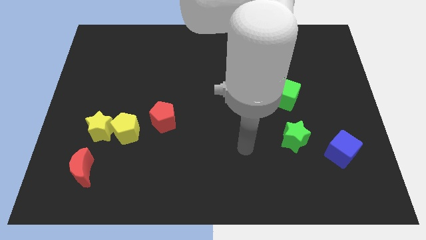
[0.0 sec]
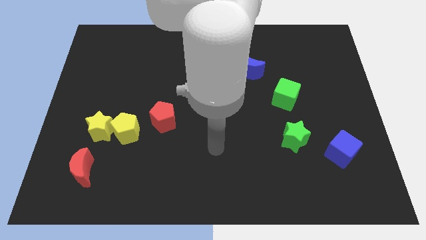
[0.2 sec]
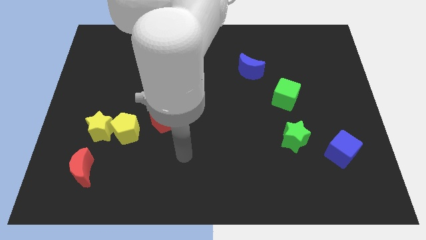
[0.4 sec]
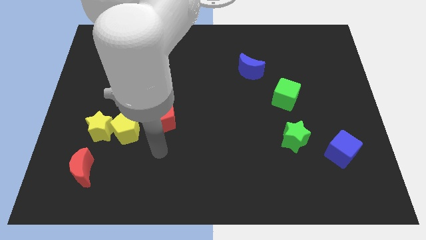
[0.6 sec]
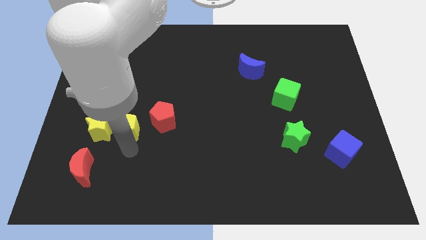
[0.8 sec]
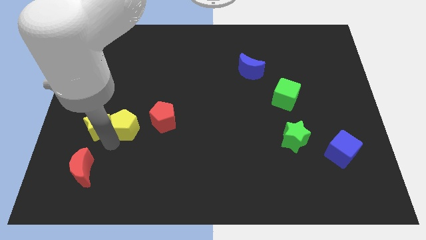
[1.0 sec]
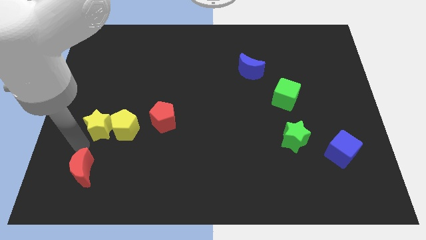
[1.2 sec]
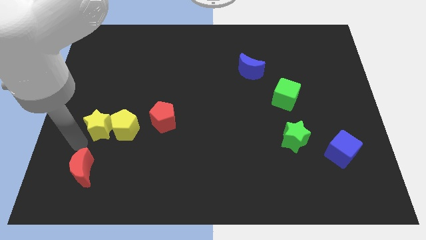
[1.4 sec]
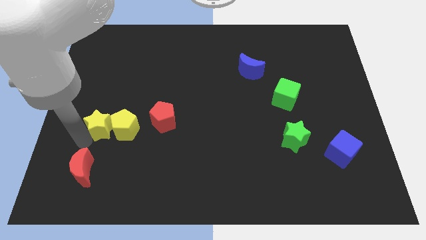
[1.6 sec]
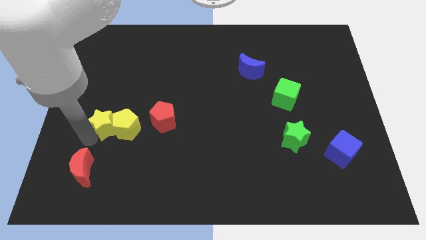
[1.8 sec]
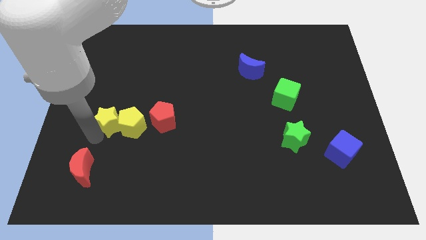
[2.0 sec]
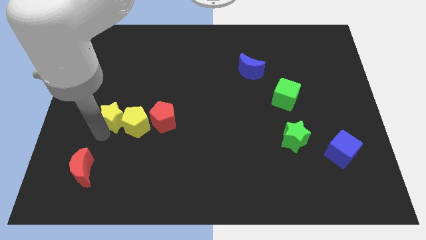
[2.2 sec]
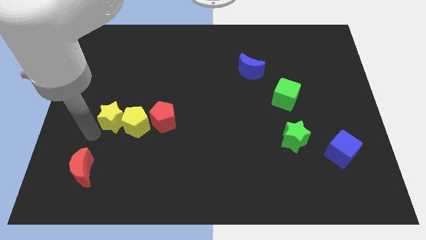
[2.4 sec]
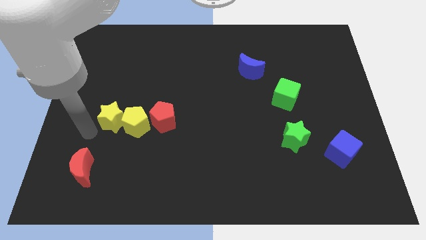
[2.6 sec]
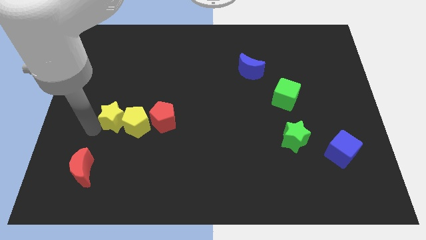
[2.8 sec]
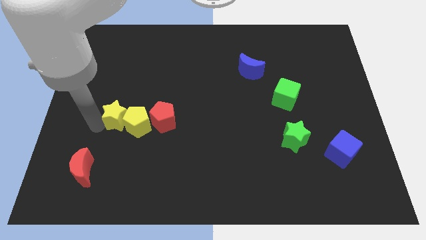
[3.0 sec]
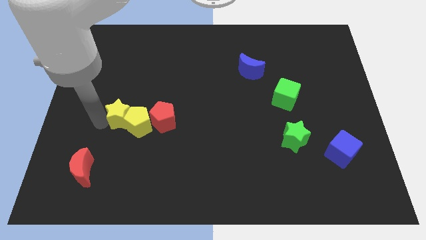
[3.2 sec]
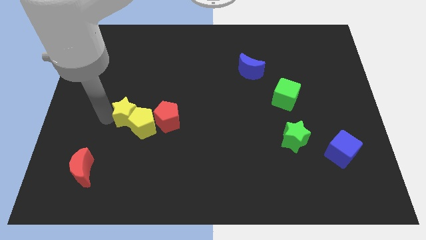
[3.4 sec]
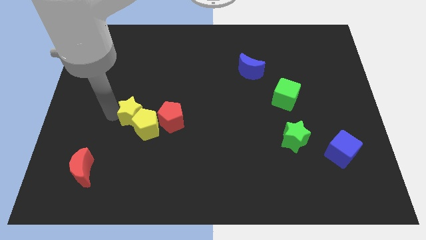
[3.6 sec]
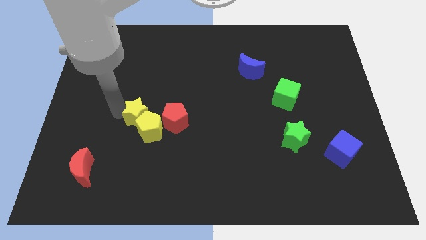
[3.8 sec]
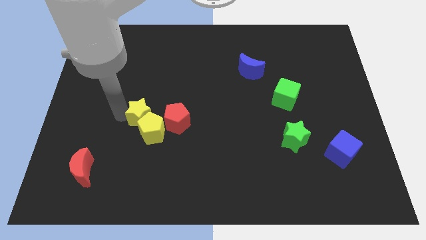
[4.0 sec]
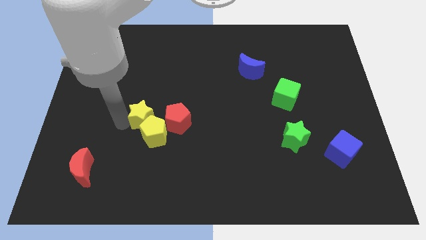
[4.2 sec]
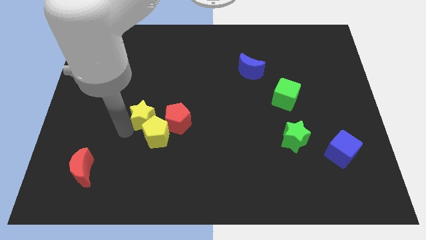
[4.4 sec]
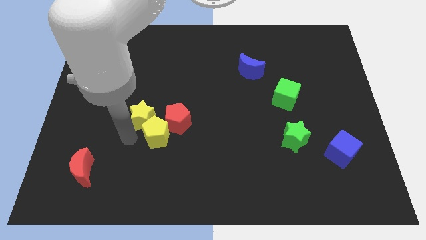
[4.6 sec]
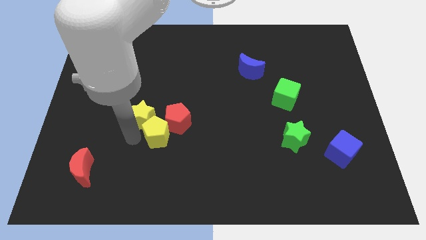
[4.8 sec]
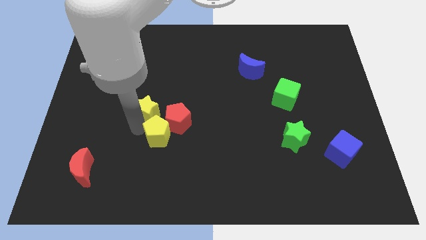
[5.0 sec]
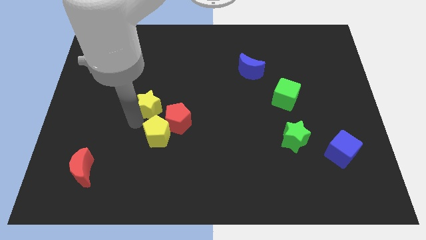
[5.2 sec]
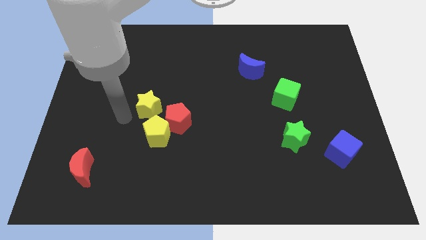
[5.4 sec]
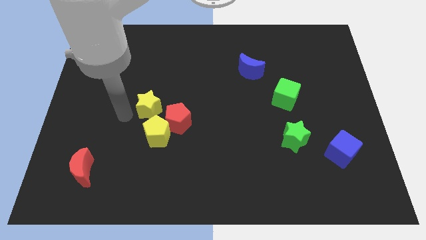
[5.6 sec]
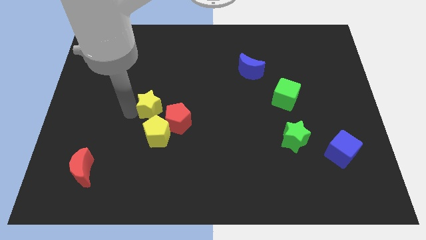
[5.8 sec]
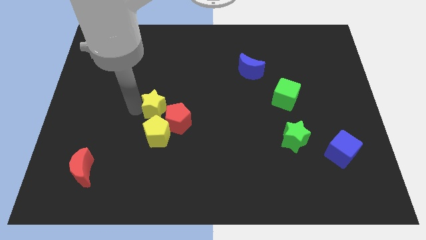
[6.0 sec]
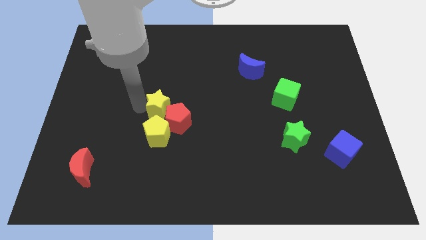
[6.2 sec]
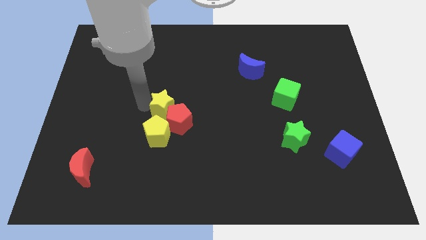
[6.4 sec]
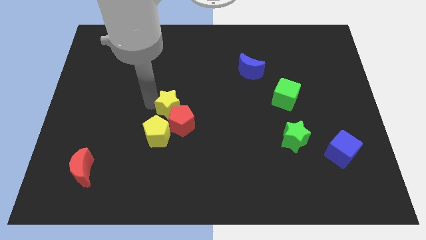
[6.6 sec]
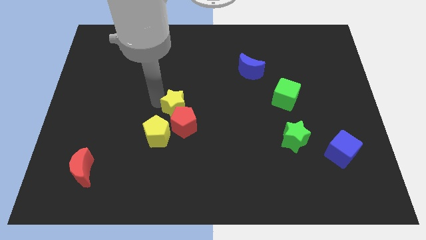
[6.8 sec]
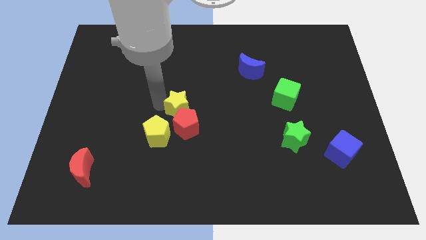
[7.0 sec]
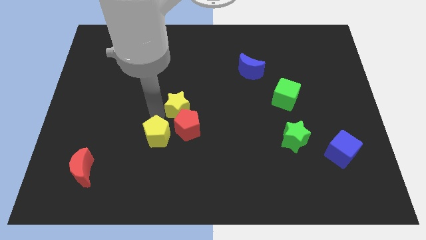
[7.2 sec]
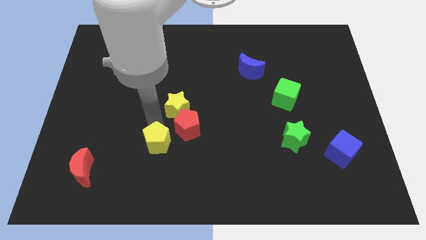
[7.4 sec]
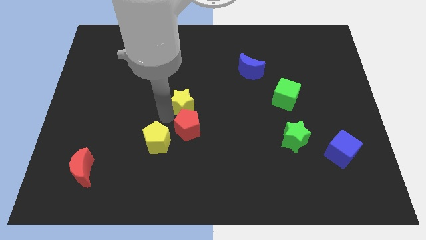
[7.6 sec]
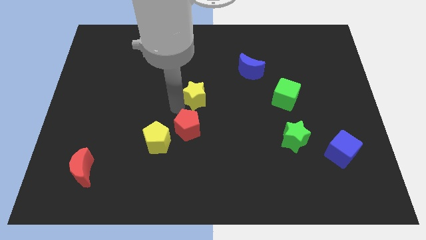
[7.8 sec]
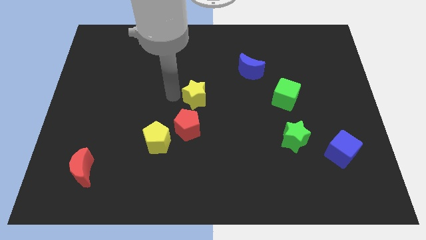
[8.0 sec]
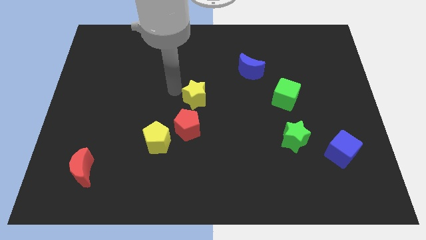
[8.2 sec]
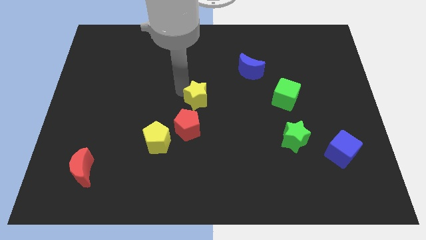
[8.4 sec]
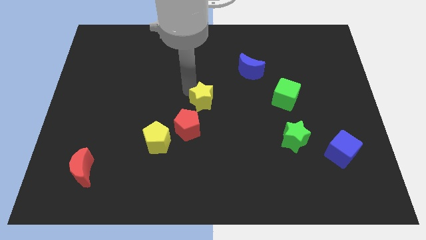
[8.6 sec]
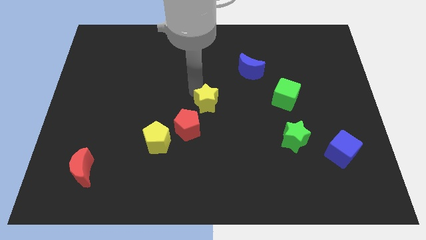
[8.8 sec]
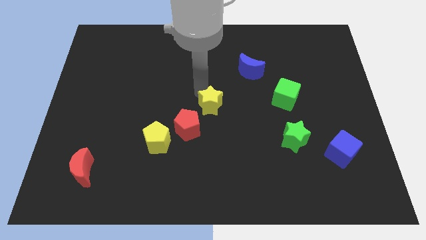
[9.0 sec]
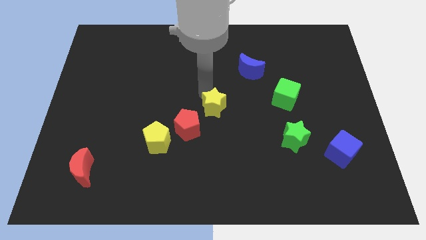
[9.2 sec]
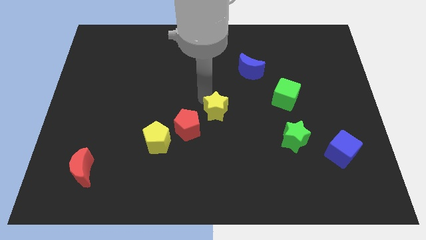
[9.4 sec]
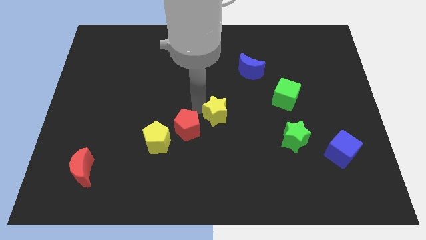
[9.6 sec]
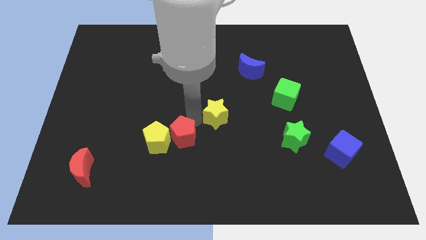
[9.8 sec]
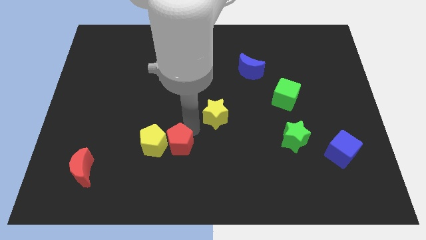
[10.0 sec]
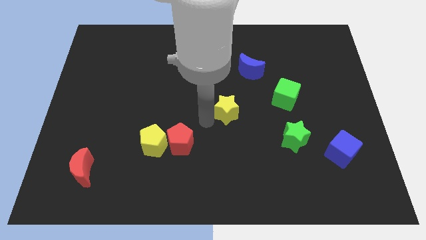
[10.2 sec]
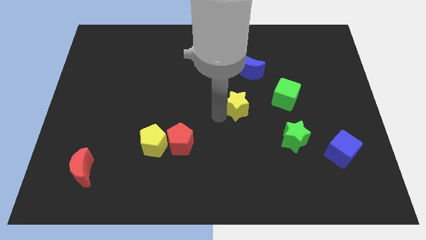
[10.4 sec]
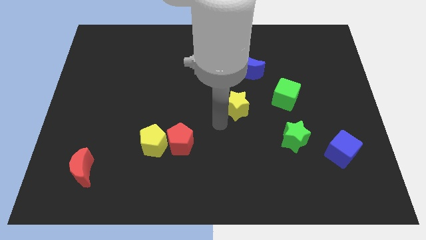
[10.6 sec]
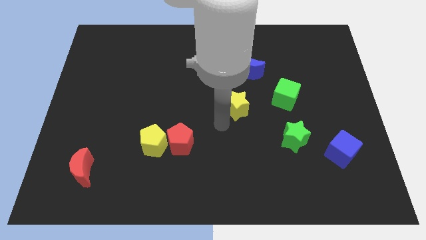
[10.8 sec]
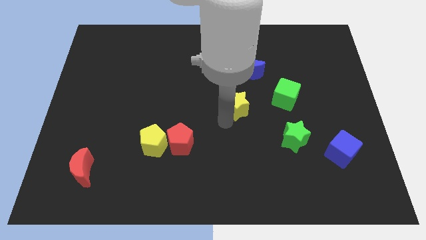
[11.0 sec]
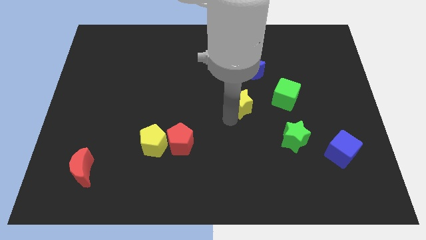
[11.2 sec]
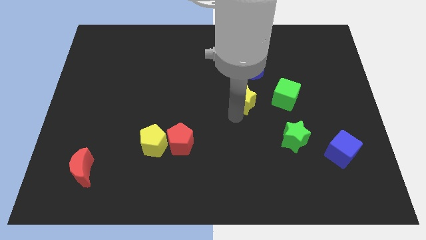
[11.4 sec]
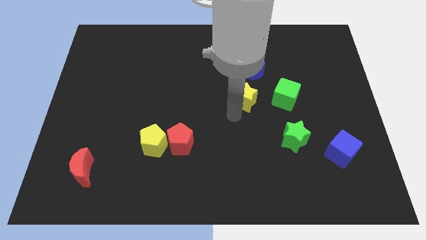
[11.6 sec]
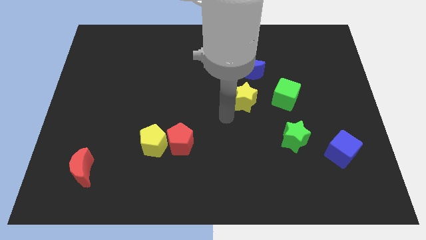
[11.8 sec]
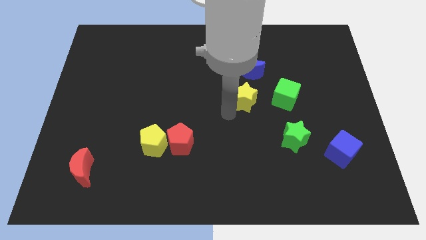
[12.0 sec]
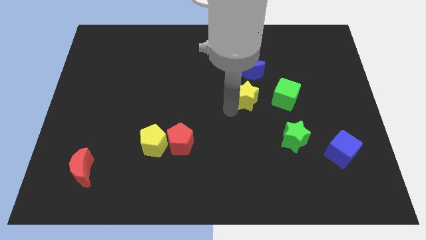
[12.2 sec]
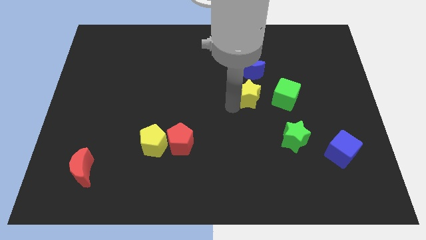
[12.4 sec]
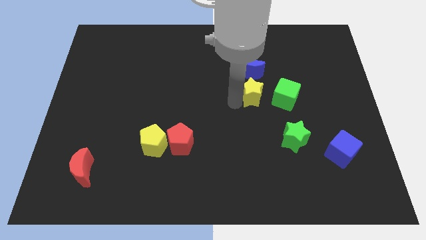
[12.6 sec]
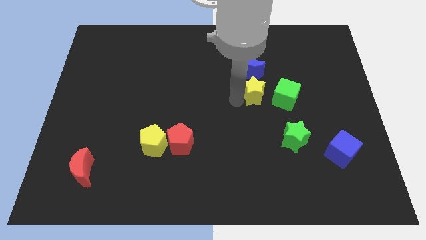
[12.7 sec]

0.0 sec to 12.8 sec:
push the yellow star to the top left of the green cube
